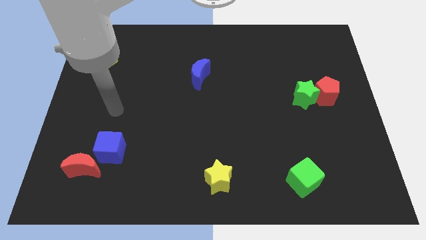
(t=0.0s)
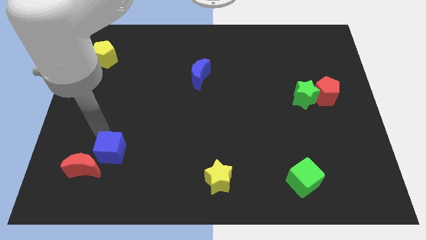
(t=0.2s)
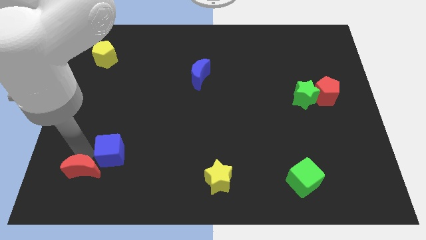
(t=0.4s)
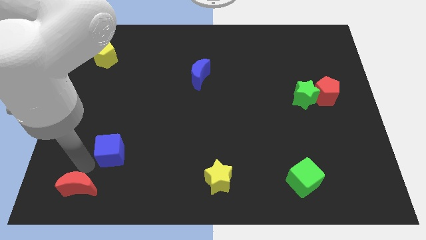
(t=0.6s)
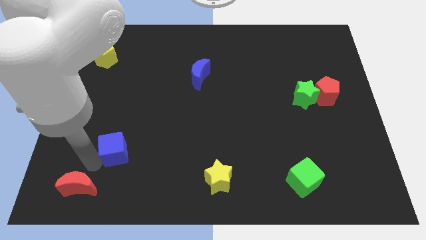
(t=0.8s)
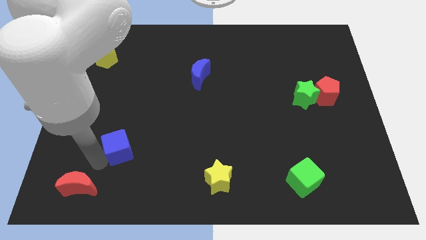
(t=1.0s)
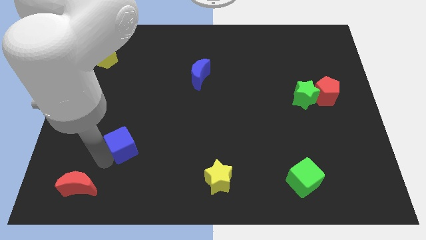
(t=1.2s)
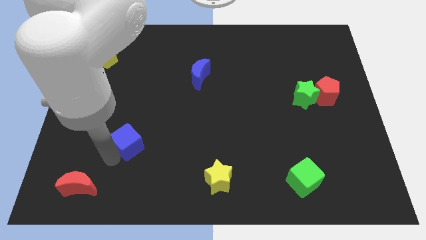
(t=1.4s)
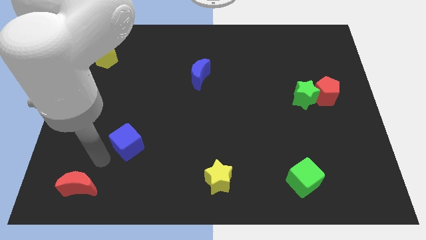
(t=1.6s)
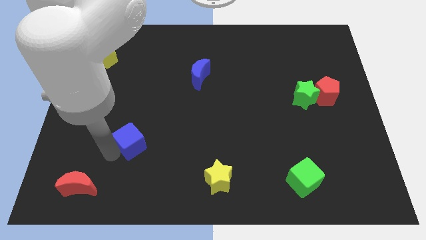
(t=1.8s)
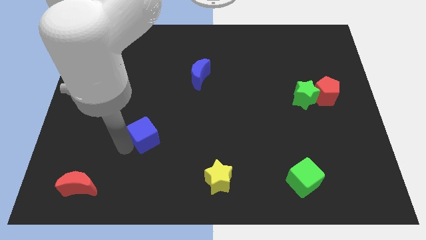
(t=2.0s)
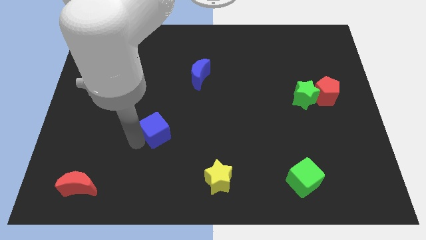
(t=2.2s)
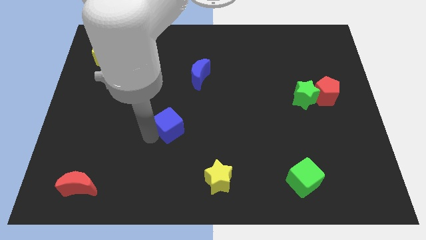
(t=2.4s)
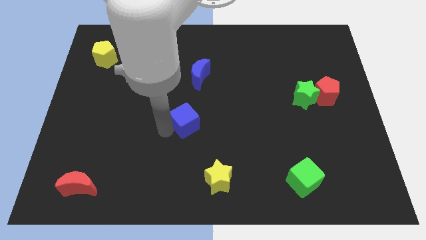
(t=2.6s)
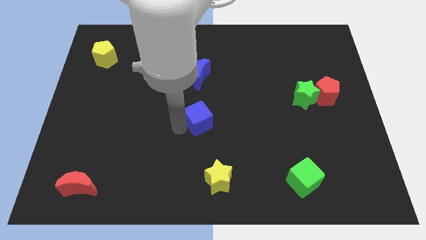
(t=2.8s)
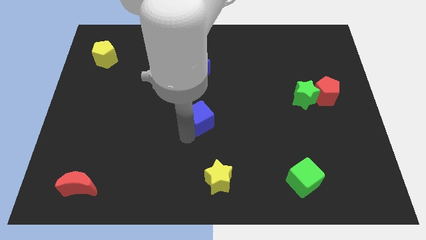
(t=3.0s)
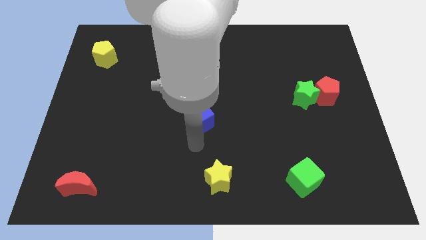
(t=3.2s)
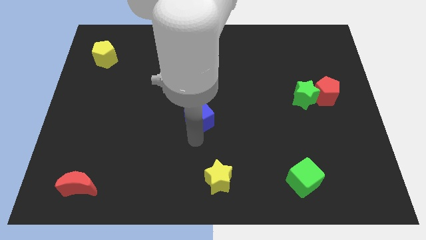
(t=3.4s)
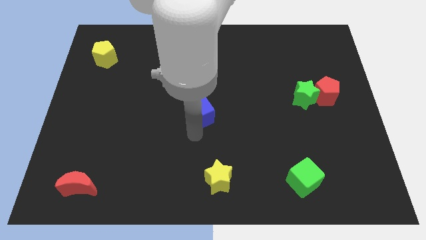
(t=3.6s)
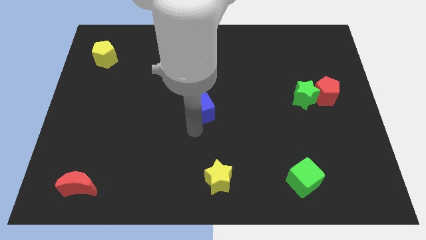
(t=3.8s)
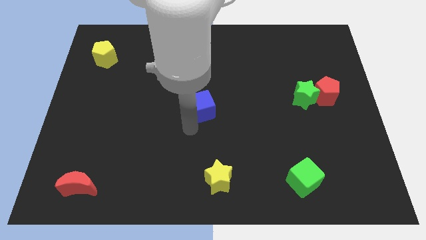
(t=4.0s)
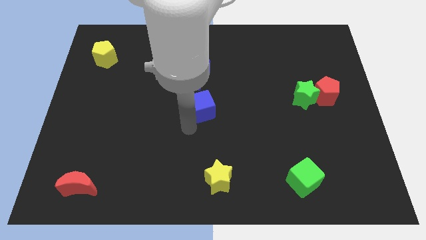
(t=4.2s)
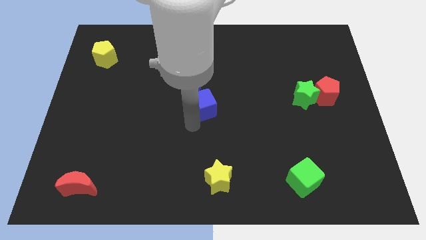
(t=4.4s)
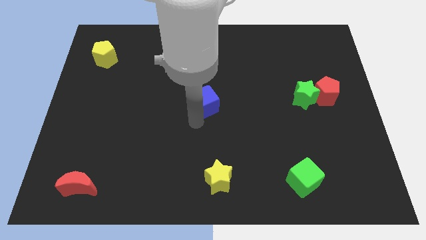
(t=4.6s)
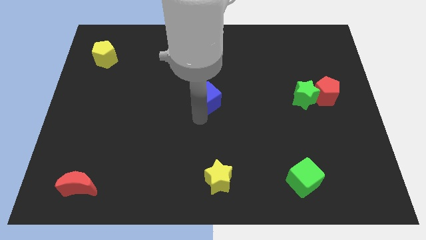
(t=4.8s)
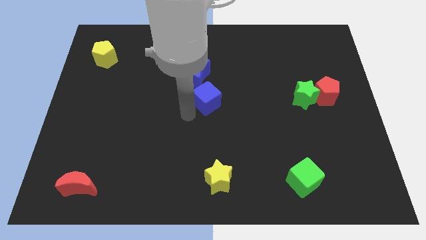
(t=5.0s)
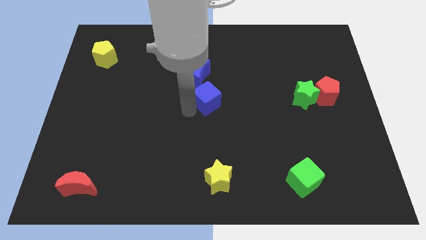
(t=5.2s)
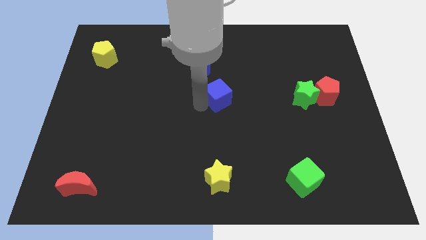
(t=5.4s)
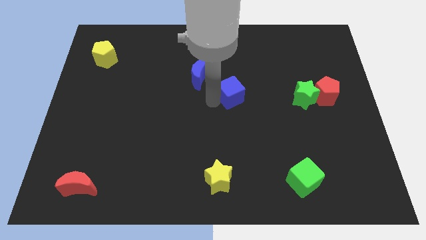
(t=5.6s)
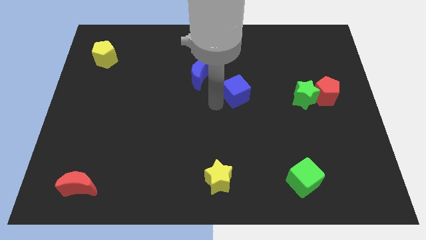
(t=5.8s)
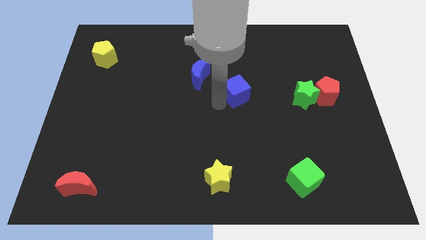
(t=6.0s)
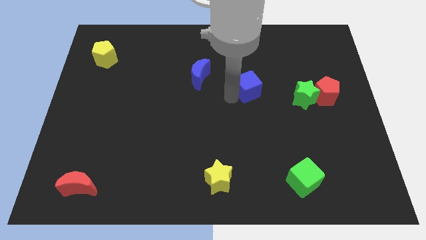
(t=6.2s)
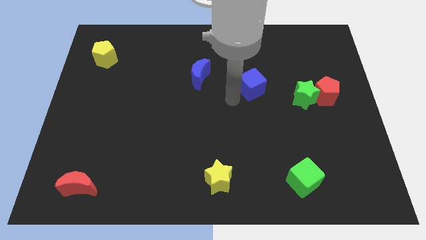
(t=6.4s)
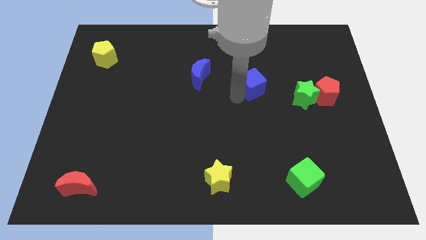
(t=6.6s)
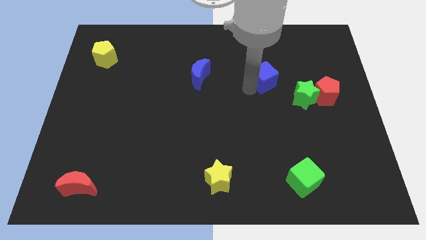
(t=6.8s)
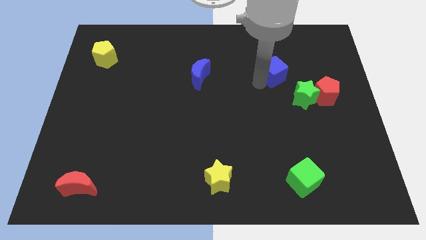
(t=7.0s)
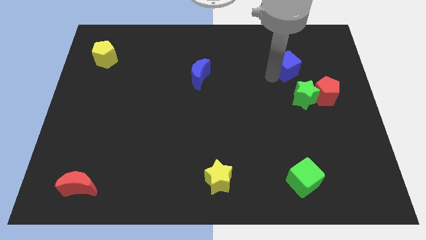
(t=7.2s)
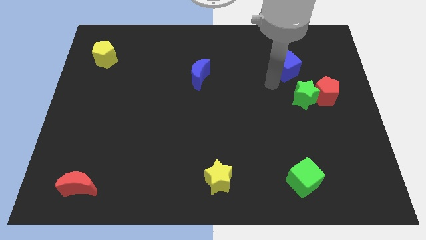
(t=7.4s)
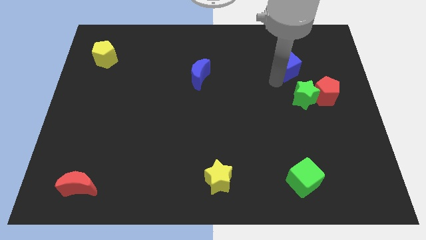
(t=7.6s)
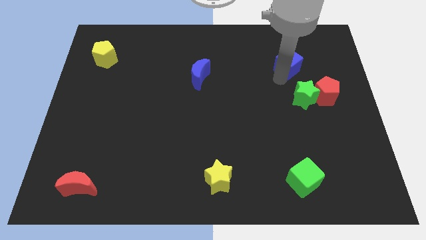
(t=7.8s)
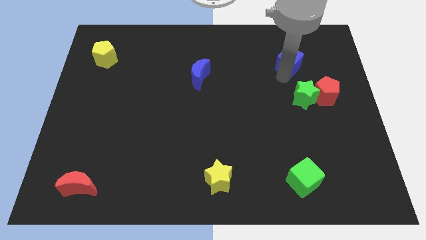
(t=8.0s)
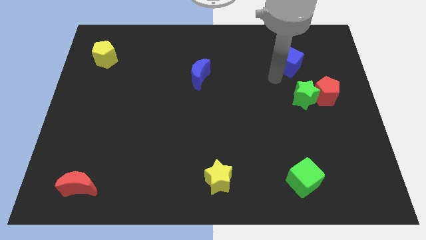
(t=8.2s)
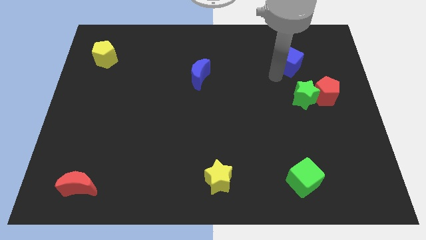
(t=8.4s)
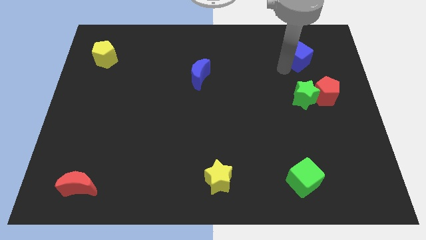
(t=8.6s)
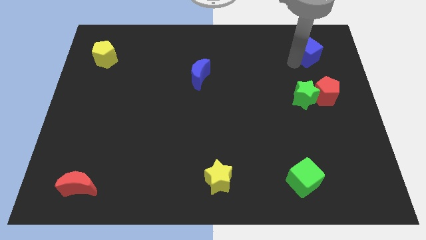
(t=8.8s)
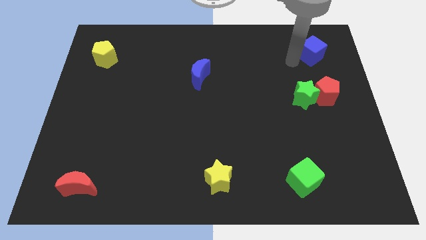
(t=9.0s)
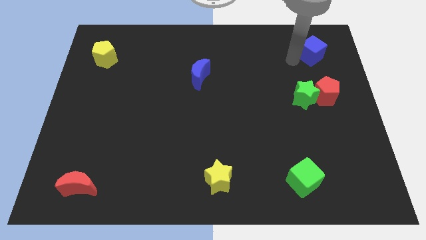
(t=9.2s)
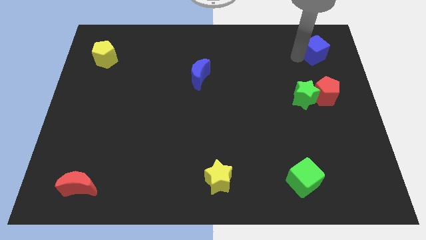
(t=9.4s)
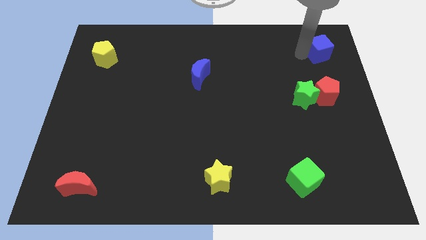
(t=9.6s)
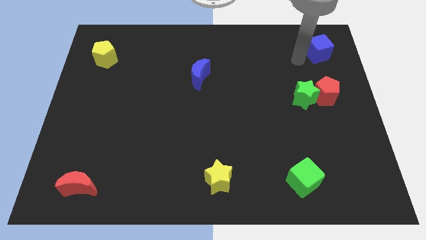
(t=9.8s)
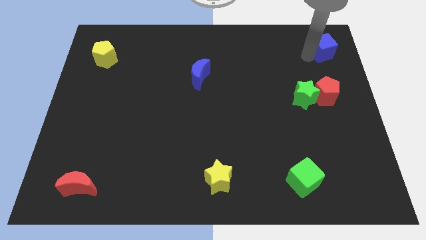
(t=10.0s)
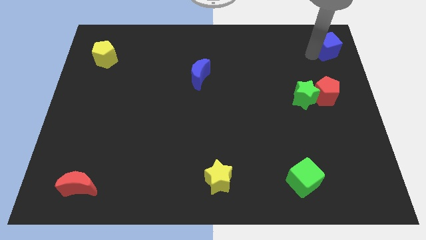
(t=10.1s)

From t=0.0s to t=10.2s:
slide the blue cube to the upper right corner

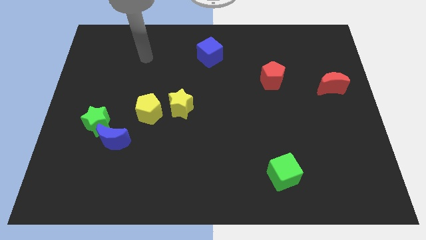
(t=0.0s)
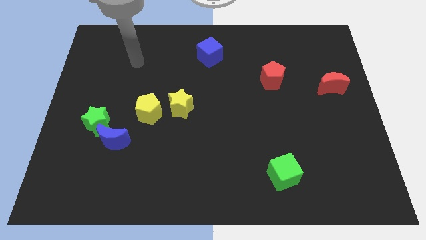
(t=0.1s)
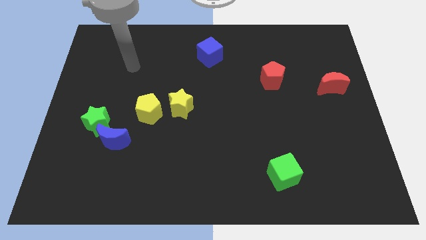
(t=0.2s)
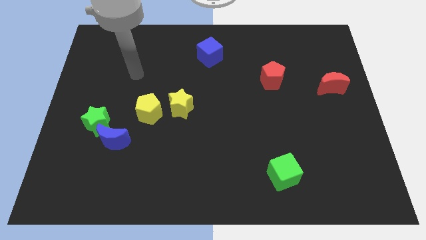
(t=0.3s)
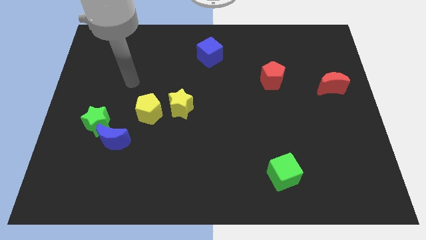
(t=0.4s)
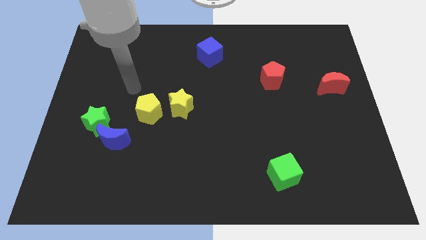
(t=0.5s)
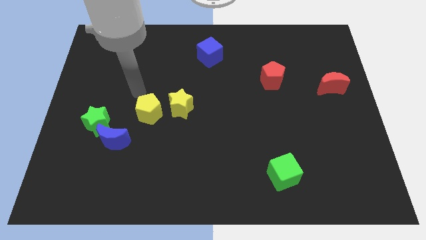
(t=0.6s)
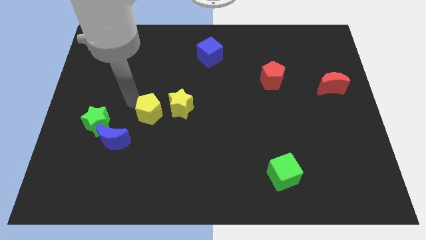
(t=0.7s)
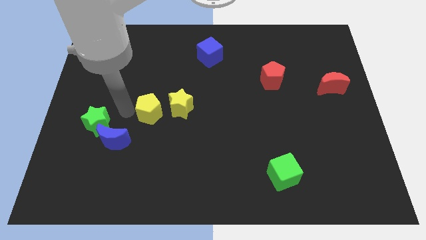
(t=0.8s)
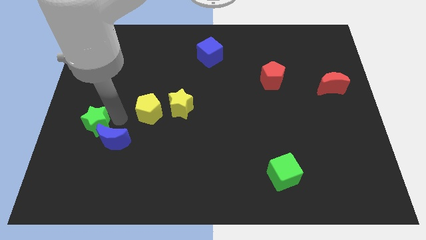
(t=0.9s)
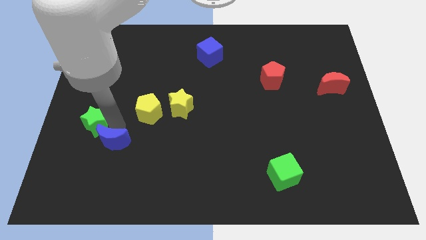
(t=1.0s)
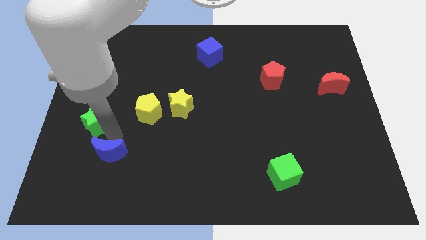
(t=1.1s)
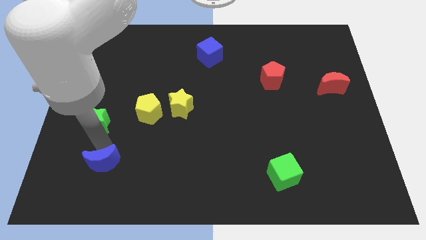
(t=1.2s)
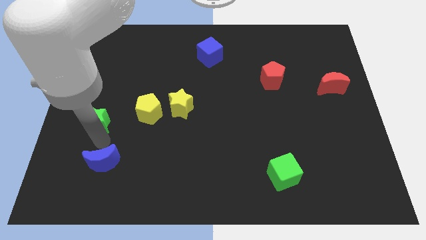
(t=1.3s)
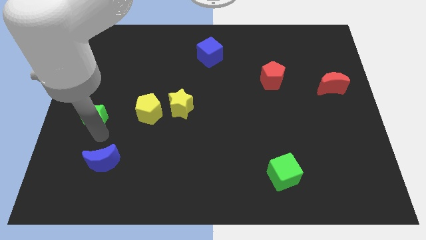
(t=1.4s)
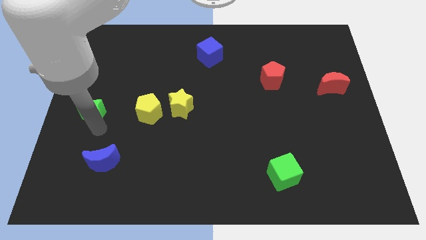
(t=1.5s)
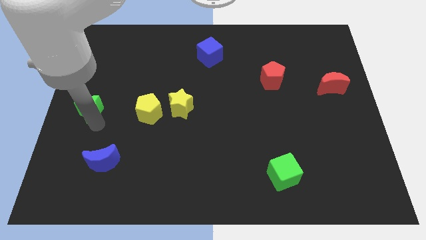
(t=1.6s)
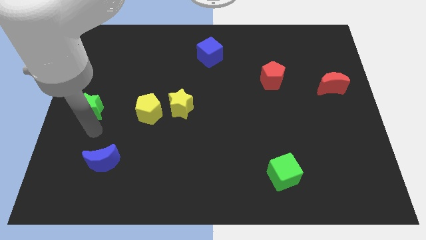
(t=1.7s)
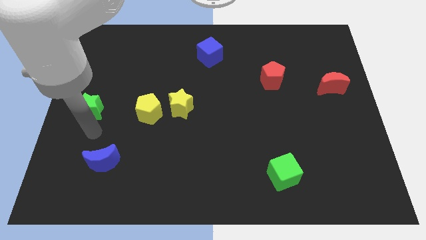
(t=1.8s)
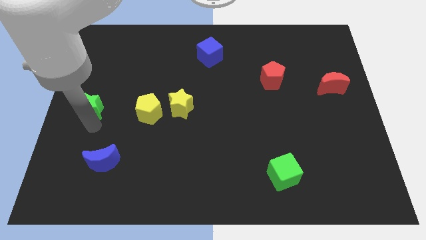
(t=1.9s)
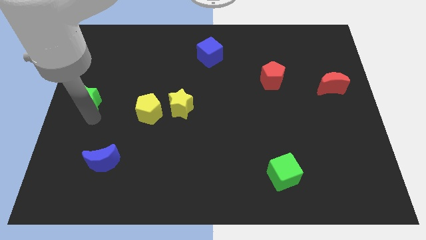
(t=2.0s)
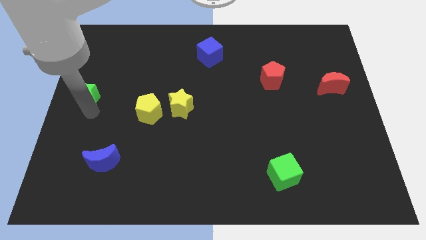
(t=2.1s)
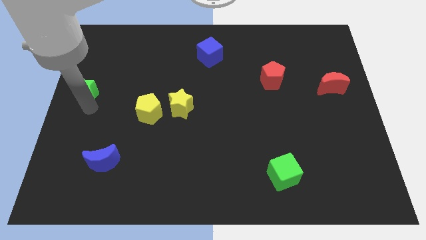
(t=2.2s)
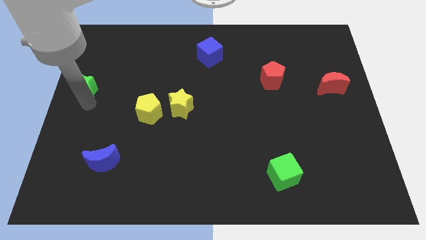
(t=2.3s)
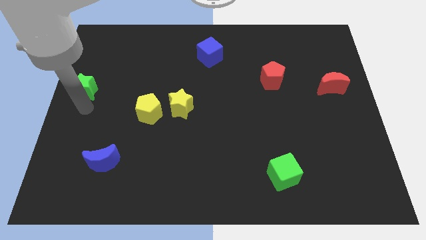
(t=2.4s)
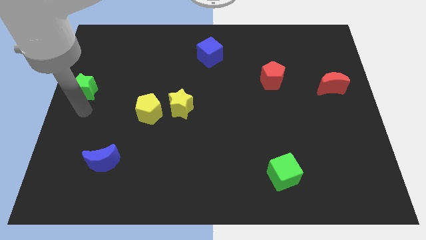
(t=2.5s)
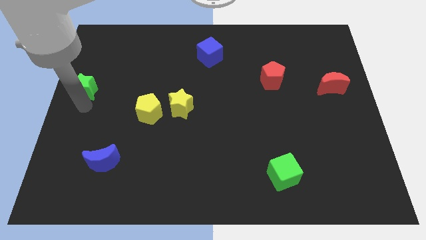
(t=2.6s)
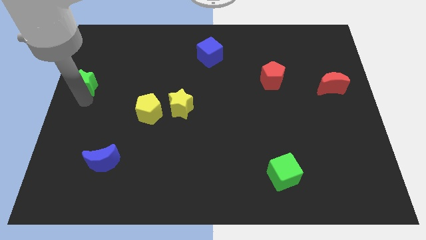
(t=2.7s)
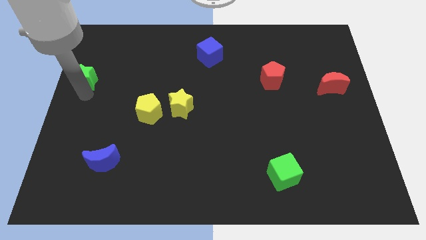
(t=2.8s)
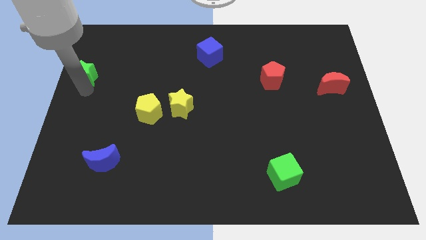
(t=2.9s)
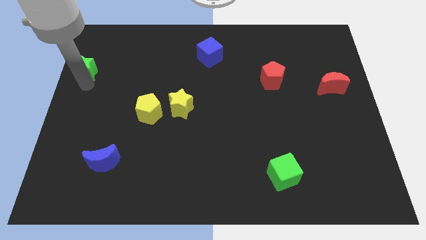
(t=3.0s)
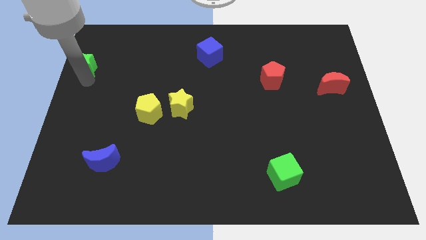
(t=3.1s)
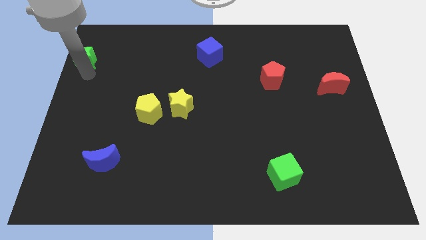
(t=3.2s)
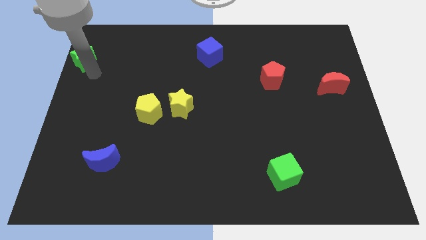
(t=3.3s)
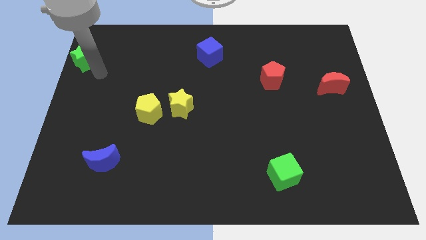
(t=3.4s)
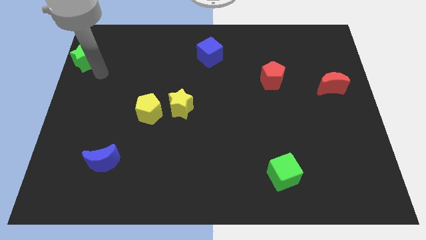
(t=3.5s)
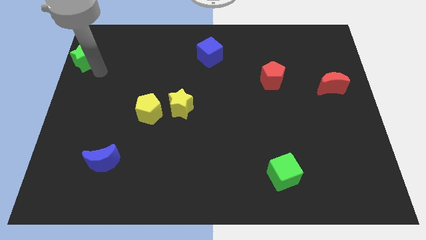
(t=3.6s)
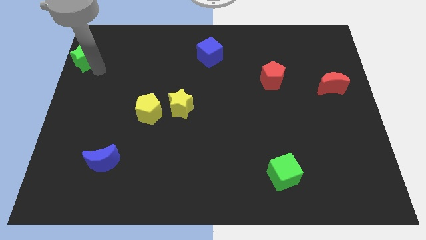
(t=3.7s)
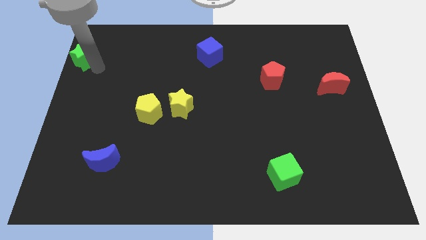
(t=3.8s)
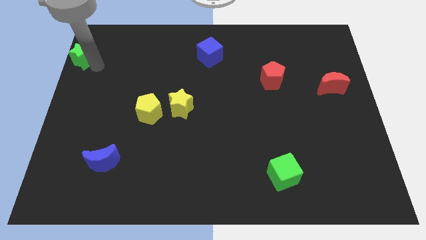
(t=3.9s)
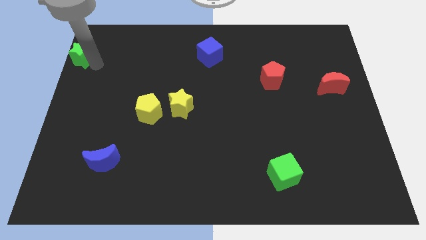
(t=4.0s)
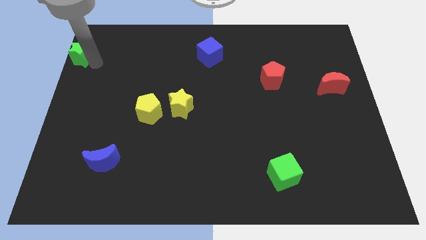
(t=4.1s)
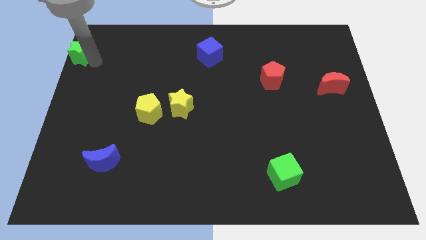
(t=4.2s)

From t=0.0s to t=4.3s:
slide the green star to the top left corner
